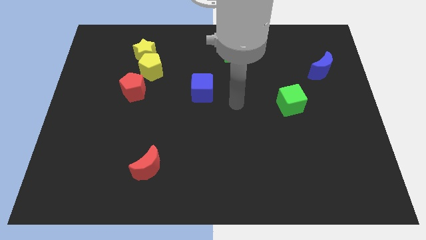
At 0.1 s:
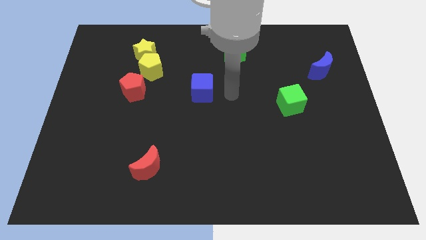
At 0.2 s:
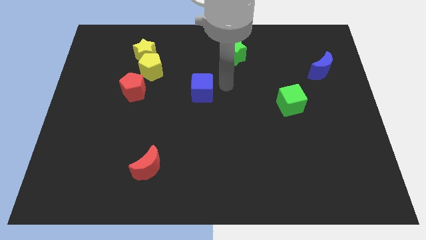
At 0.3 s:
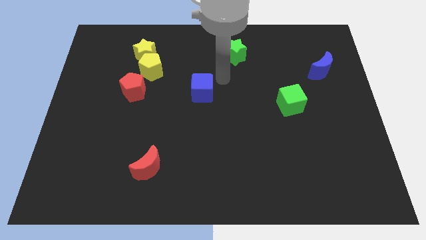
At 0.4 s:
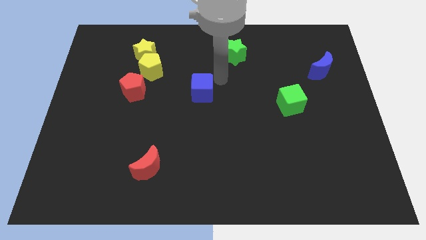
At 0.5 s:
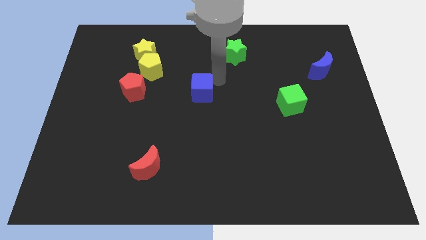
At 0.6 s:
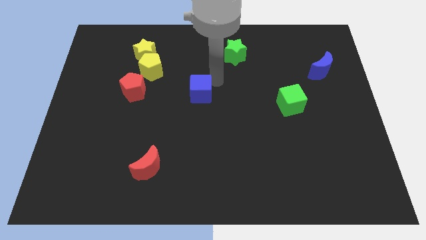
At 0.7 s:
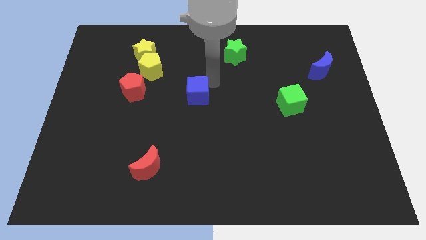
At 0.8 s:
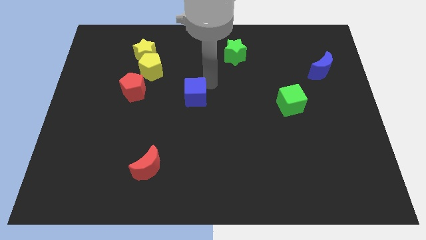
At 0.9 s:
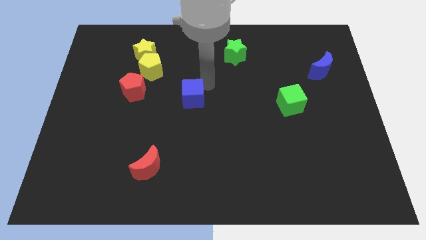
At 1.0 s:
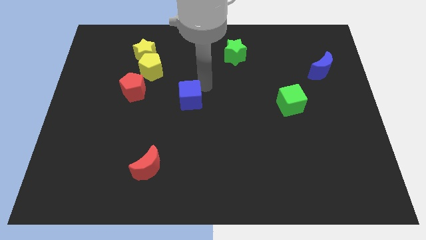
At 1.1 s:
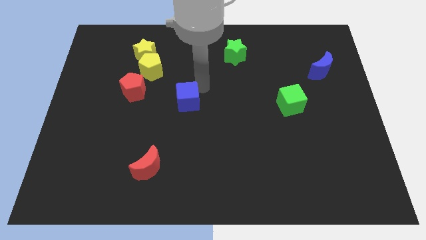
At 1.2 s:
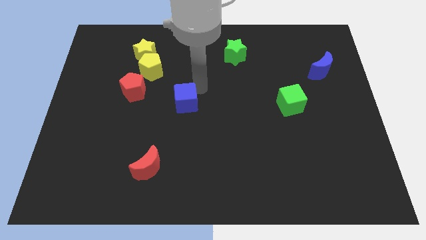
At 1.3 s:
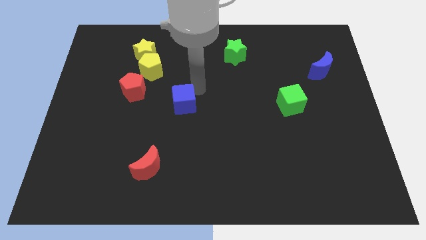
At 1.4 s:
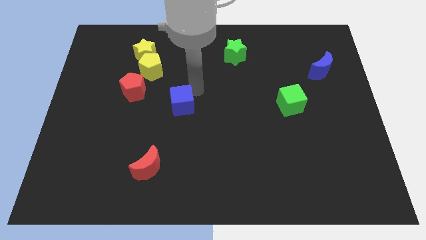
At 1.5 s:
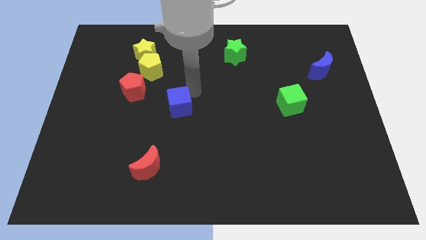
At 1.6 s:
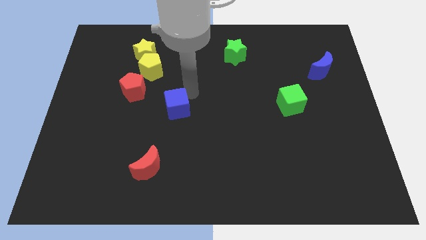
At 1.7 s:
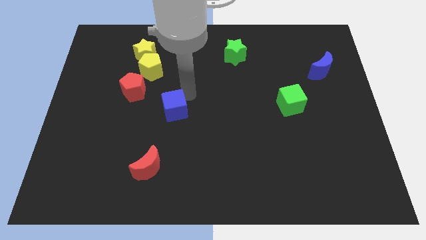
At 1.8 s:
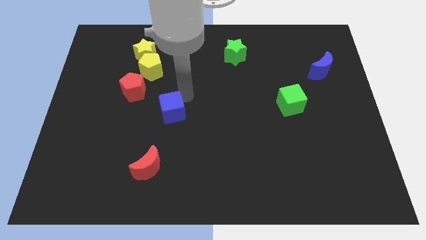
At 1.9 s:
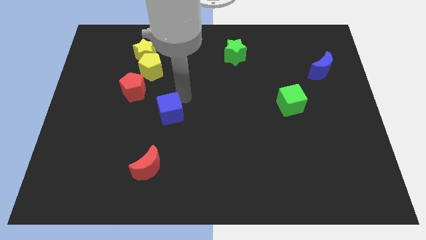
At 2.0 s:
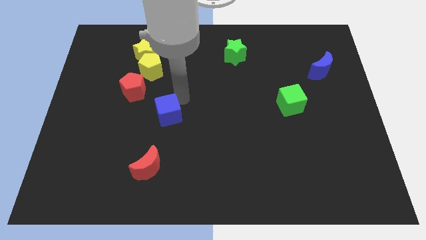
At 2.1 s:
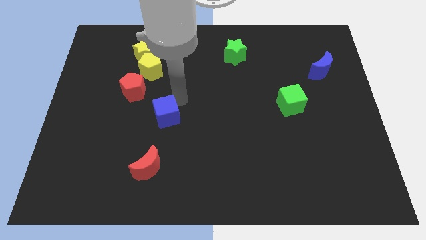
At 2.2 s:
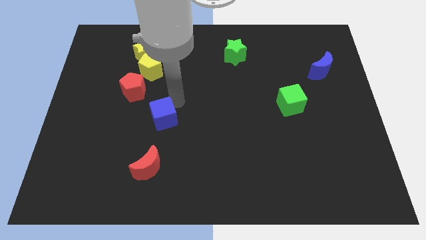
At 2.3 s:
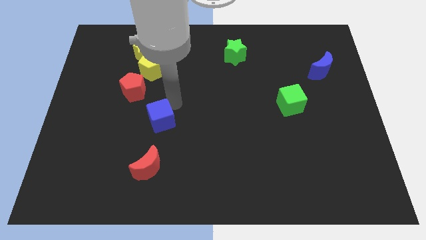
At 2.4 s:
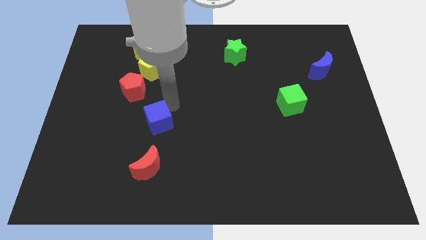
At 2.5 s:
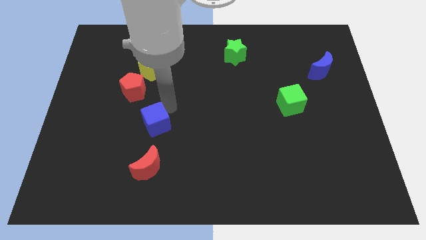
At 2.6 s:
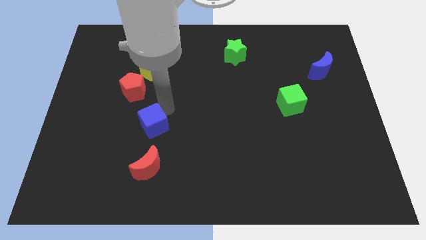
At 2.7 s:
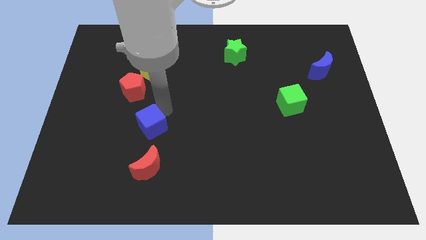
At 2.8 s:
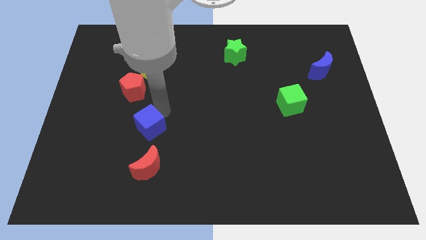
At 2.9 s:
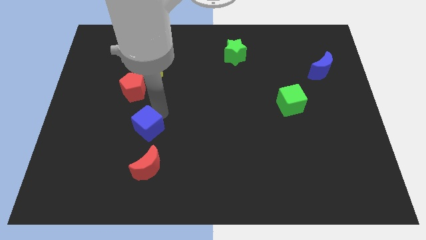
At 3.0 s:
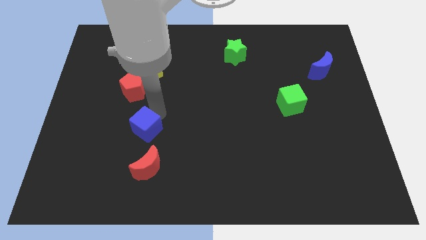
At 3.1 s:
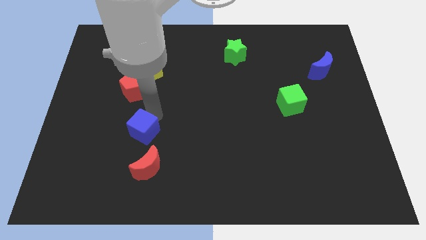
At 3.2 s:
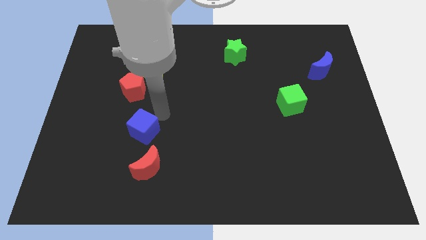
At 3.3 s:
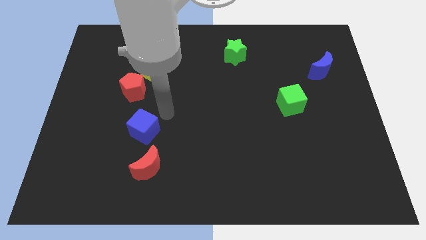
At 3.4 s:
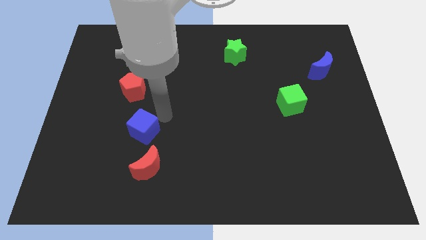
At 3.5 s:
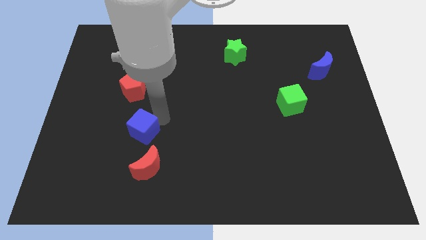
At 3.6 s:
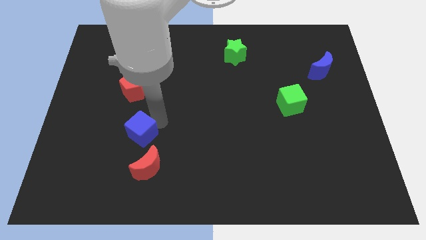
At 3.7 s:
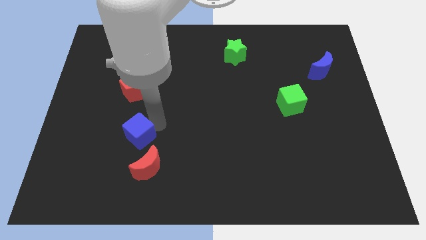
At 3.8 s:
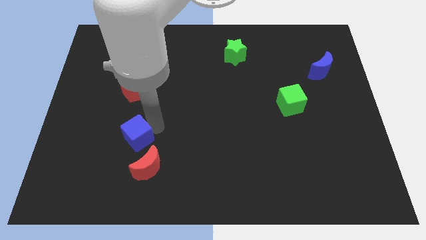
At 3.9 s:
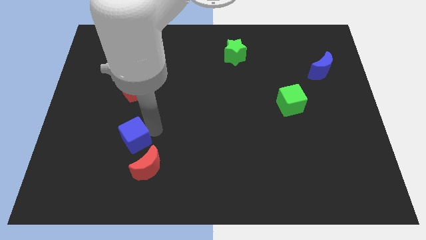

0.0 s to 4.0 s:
slide the blue cube diagonally down and to the left

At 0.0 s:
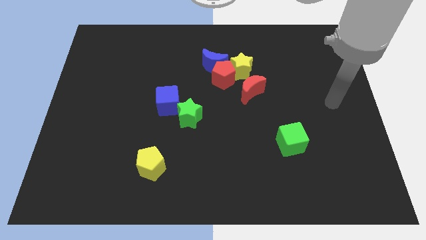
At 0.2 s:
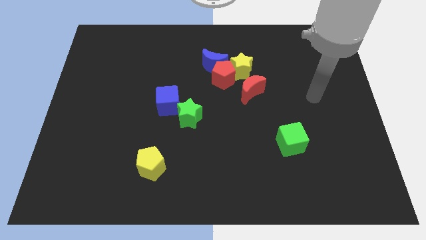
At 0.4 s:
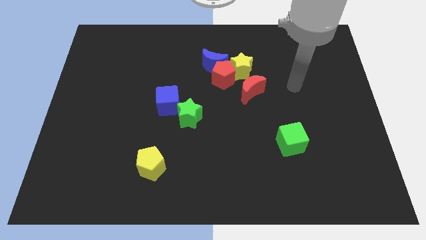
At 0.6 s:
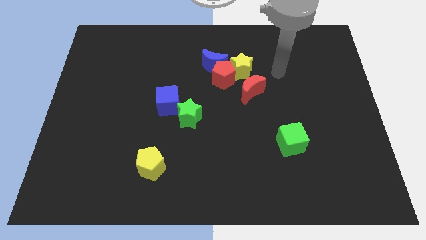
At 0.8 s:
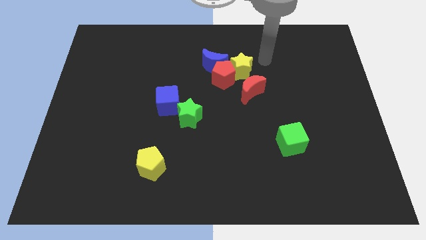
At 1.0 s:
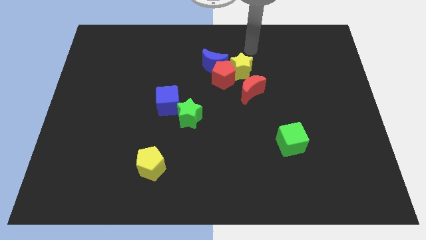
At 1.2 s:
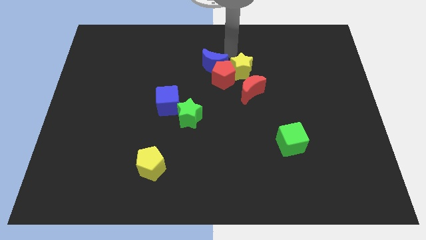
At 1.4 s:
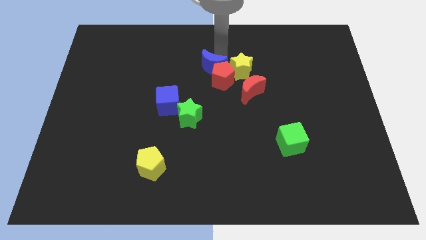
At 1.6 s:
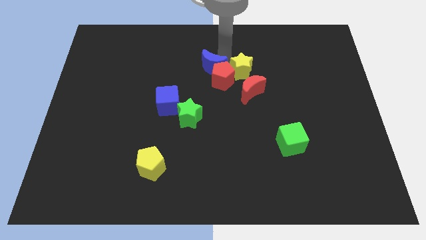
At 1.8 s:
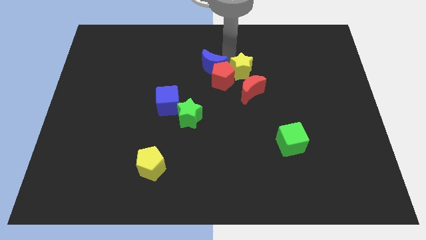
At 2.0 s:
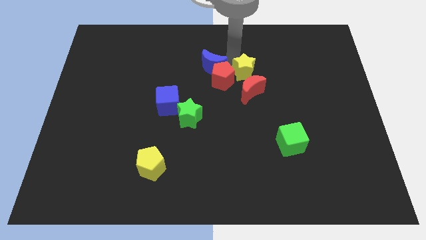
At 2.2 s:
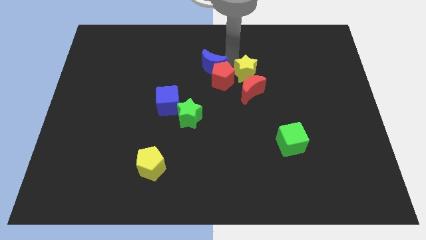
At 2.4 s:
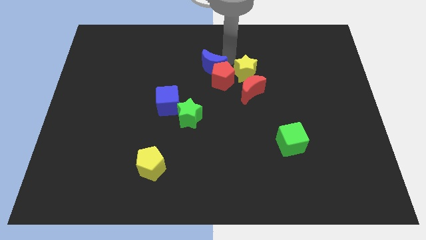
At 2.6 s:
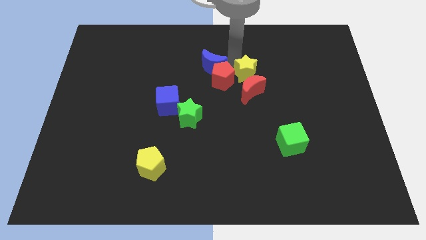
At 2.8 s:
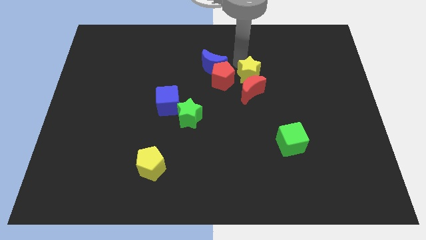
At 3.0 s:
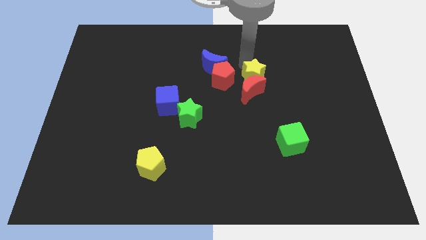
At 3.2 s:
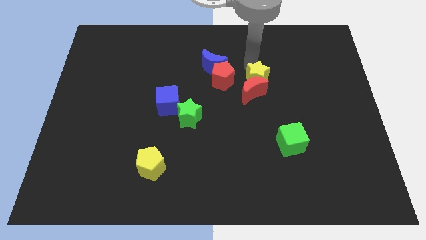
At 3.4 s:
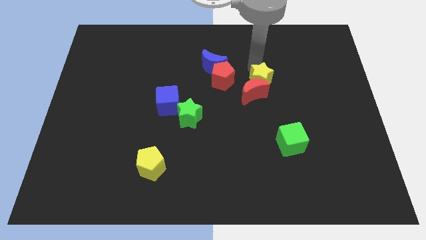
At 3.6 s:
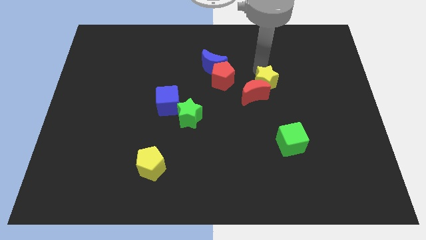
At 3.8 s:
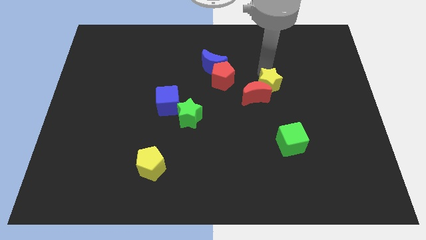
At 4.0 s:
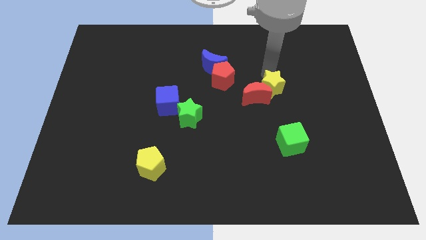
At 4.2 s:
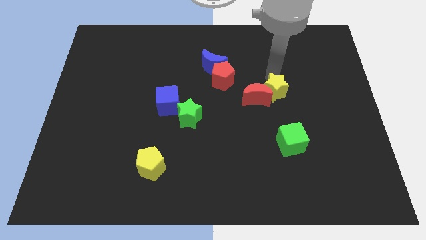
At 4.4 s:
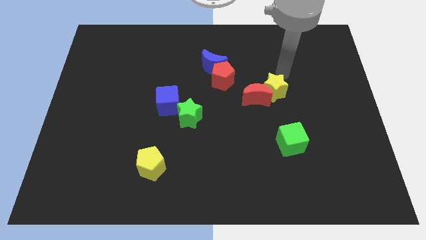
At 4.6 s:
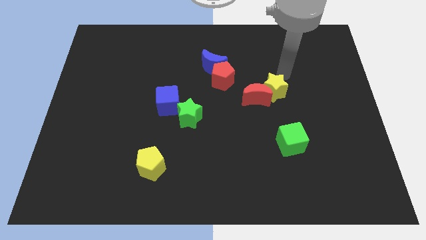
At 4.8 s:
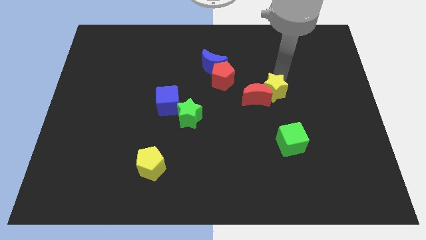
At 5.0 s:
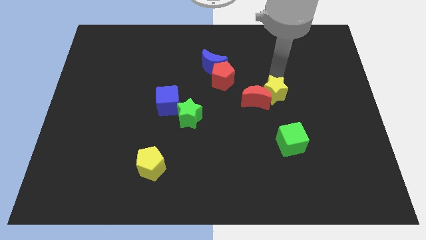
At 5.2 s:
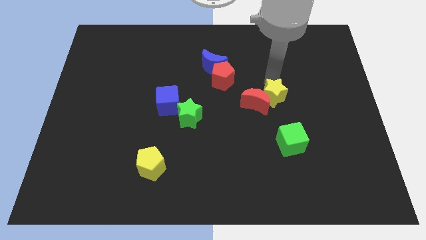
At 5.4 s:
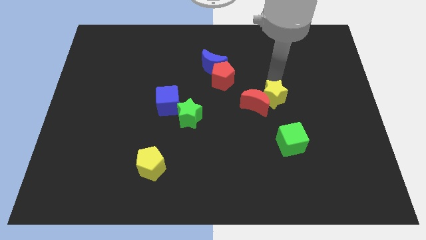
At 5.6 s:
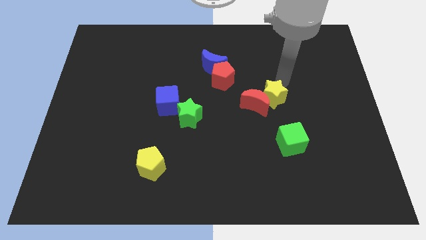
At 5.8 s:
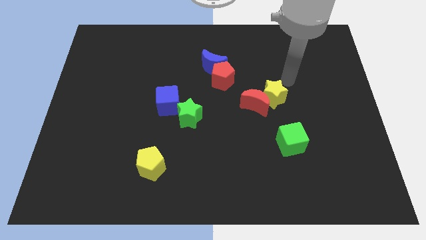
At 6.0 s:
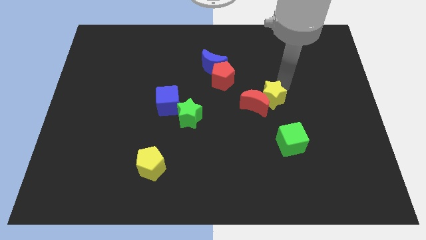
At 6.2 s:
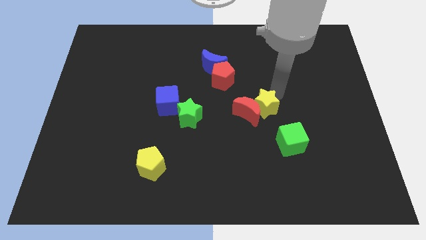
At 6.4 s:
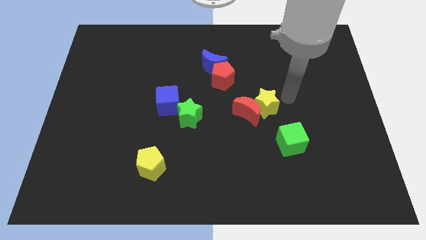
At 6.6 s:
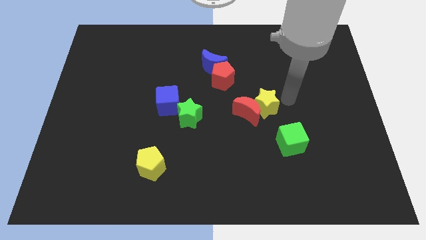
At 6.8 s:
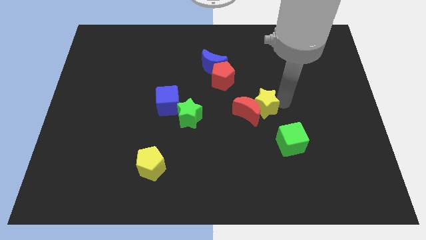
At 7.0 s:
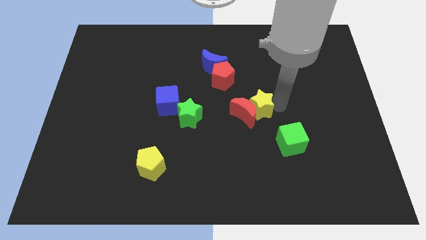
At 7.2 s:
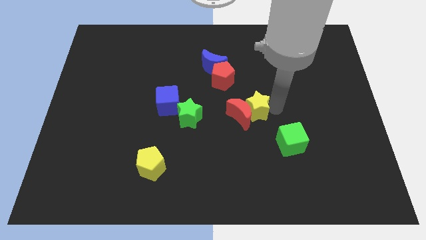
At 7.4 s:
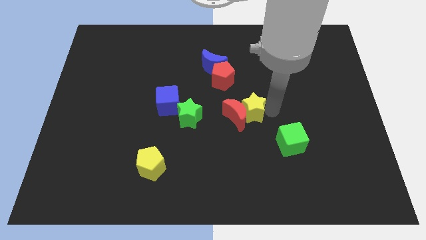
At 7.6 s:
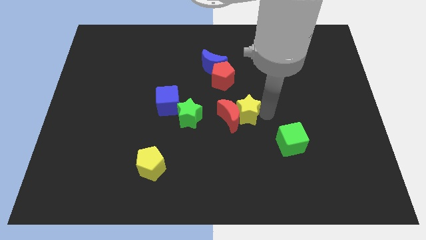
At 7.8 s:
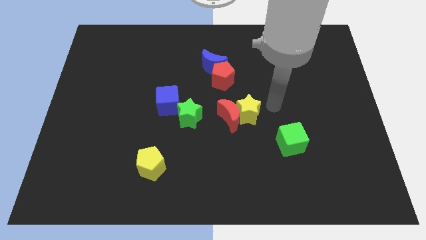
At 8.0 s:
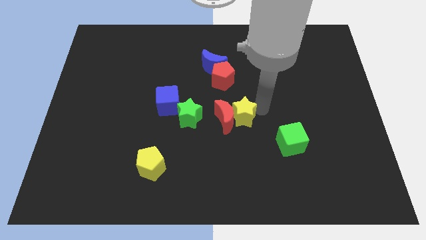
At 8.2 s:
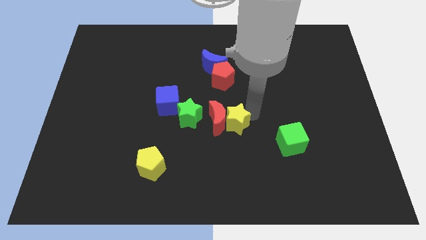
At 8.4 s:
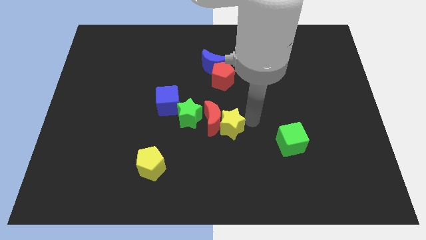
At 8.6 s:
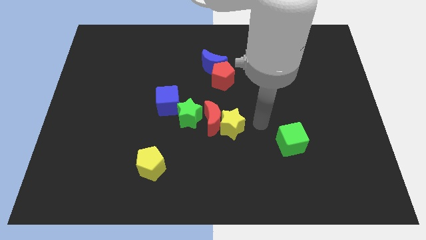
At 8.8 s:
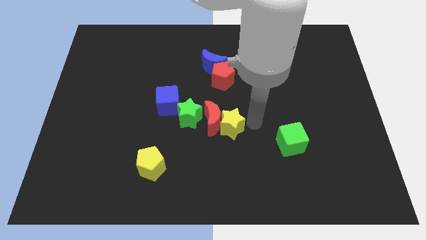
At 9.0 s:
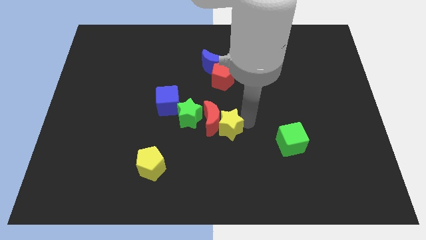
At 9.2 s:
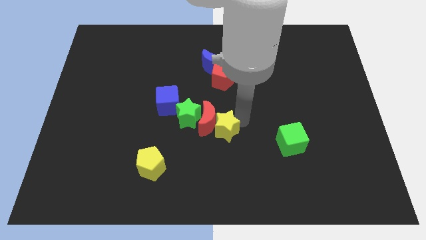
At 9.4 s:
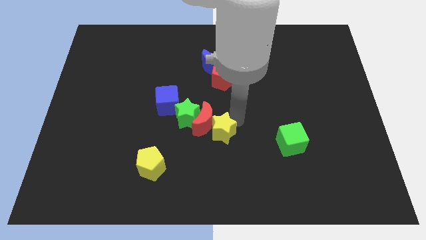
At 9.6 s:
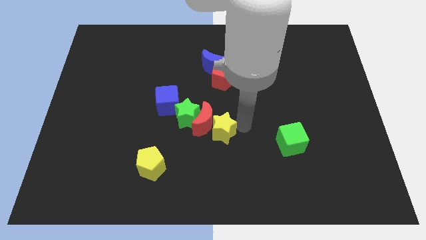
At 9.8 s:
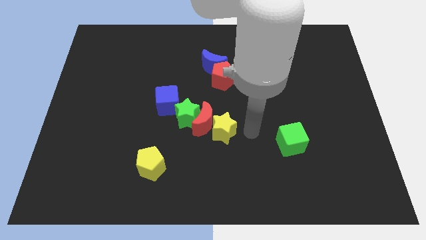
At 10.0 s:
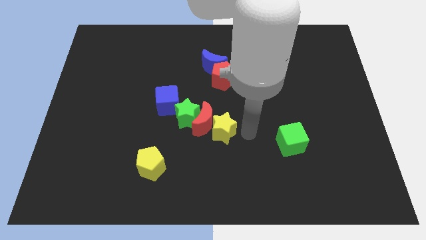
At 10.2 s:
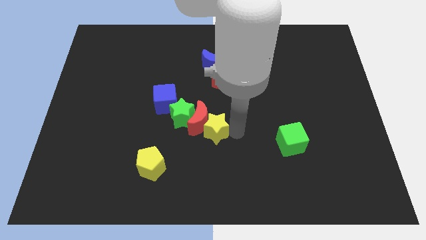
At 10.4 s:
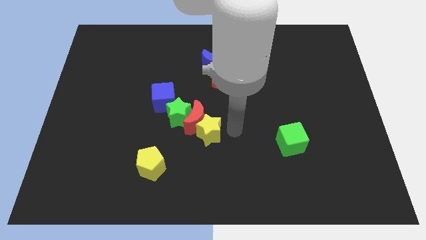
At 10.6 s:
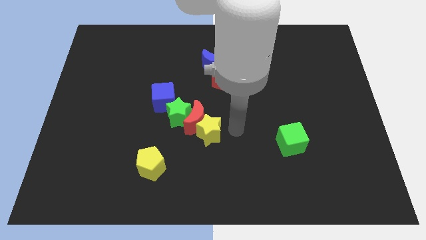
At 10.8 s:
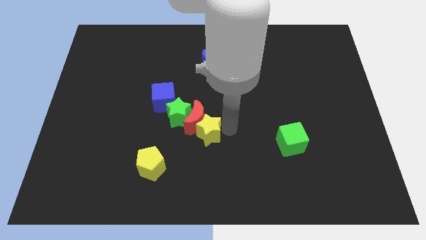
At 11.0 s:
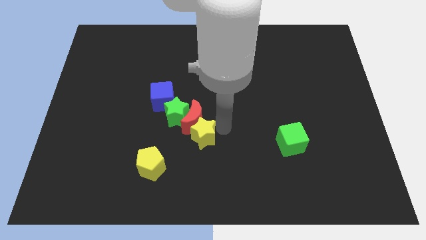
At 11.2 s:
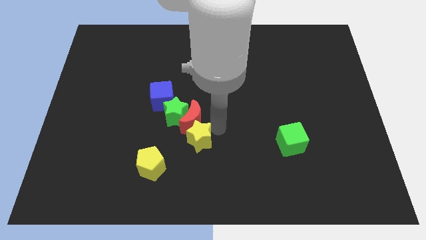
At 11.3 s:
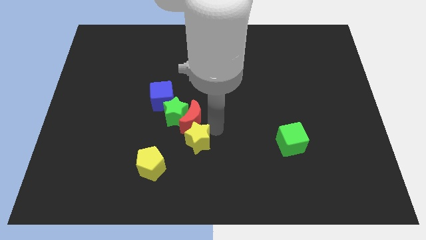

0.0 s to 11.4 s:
push the yellow star downwards and left
